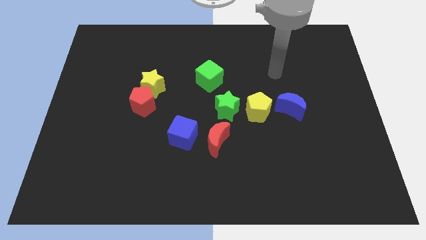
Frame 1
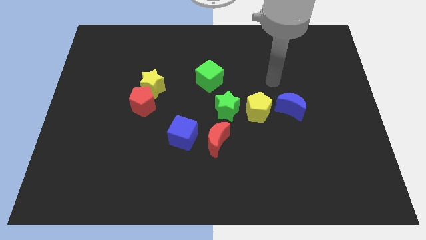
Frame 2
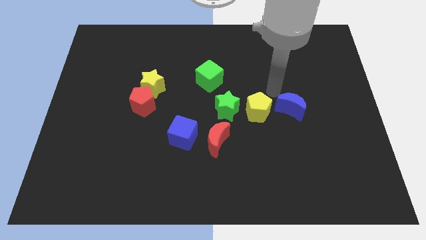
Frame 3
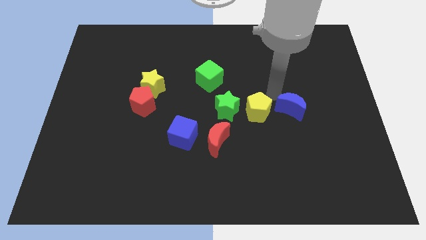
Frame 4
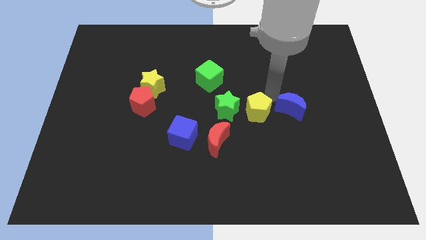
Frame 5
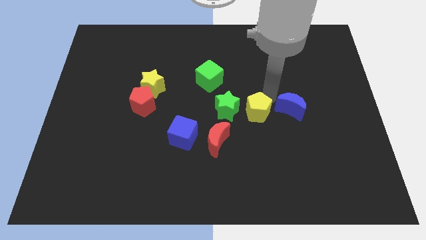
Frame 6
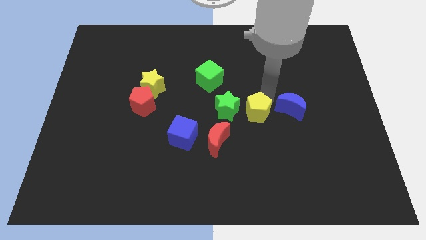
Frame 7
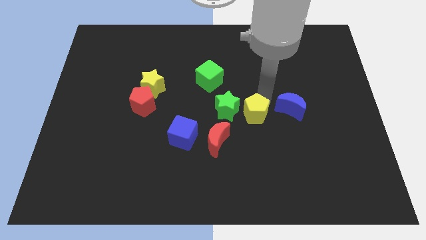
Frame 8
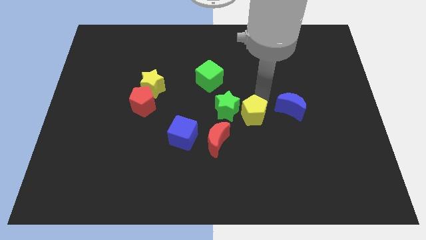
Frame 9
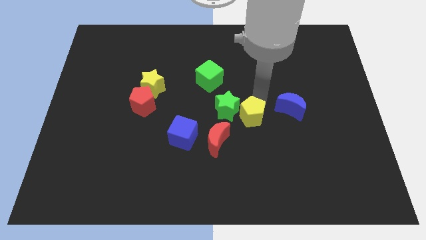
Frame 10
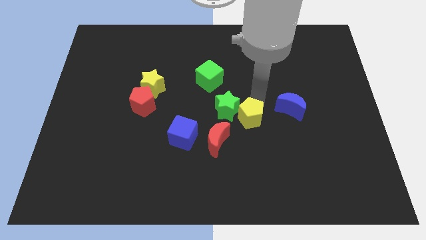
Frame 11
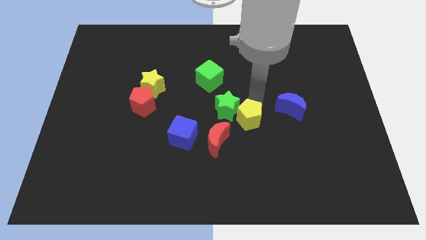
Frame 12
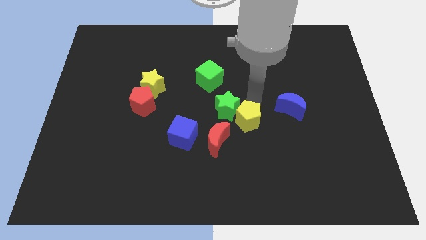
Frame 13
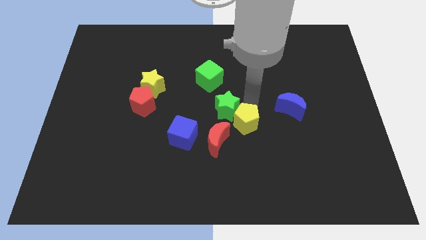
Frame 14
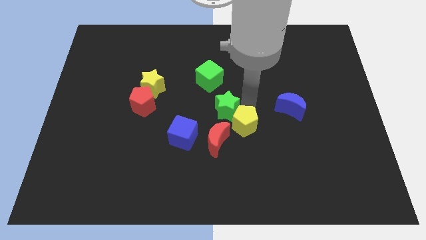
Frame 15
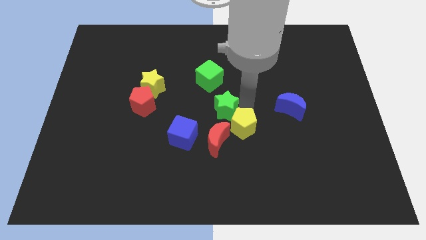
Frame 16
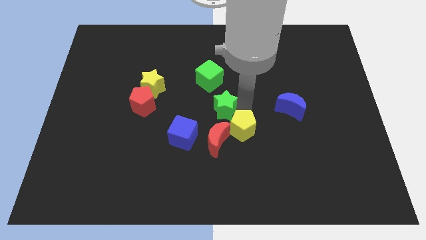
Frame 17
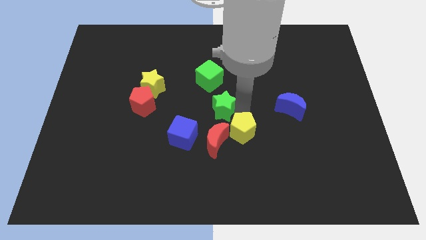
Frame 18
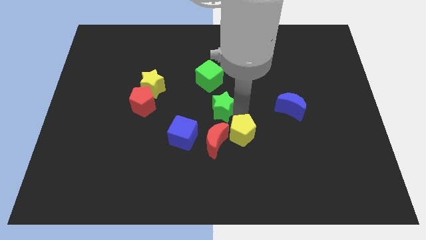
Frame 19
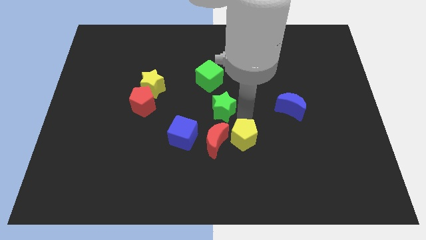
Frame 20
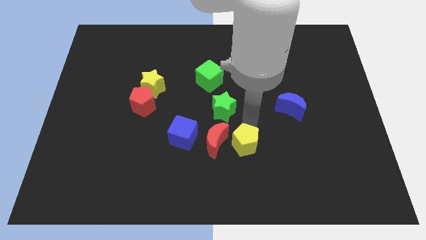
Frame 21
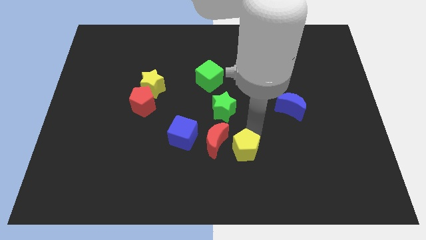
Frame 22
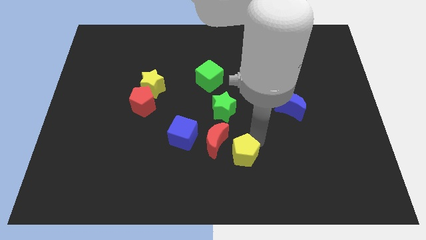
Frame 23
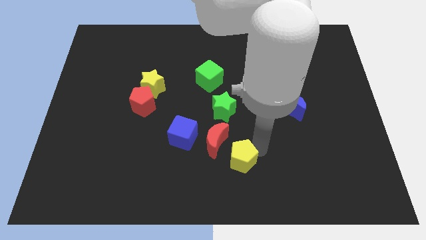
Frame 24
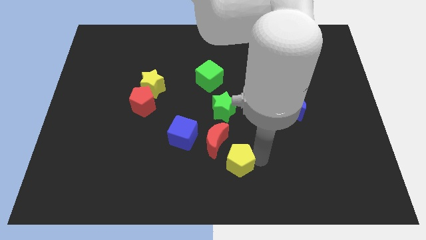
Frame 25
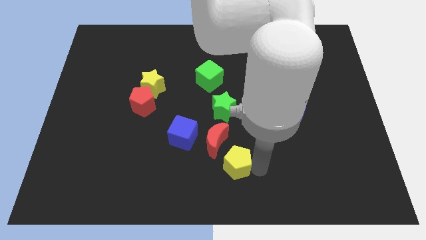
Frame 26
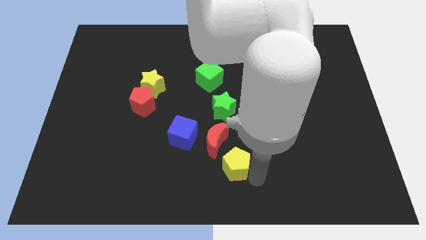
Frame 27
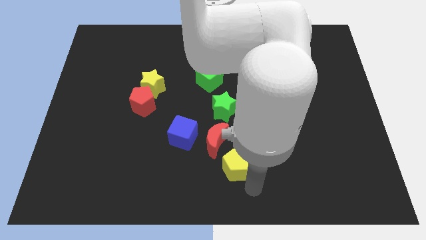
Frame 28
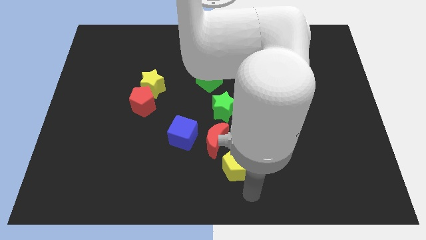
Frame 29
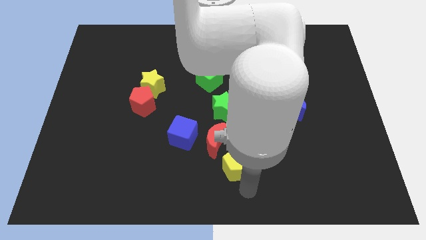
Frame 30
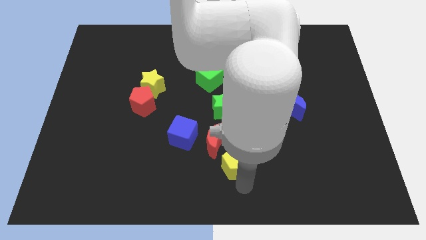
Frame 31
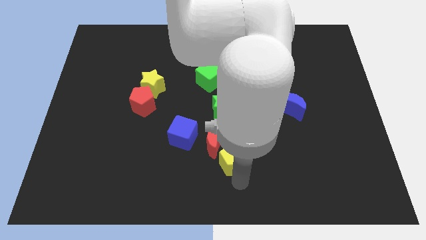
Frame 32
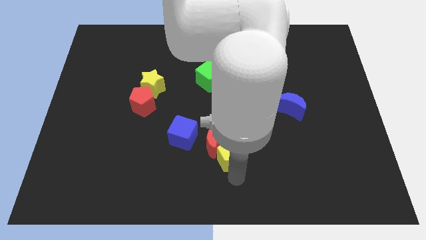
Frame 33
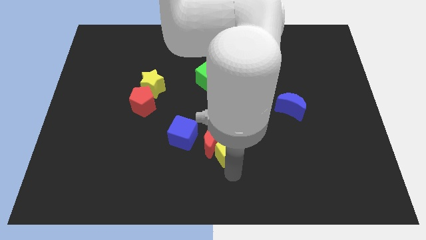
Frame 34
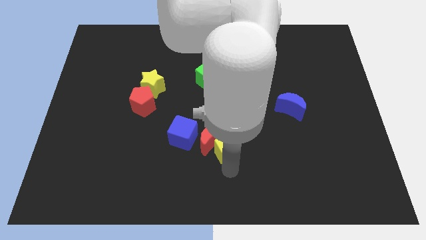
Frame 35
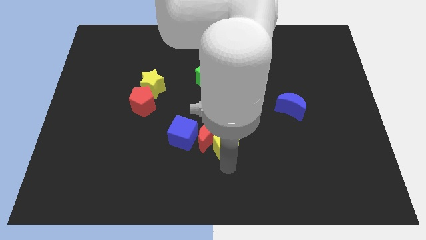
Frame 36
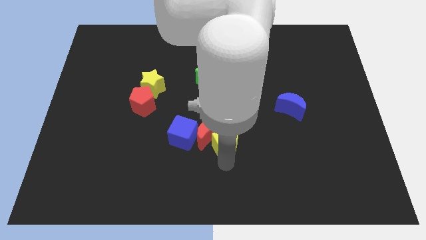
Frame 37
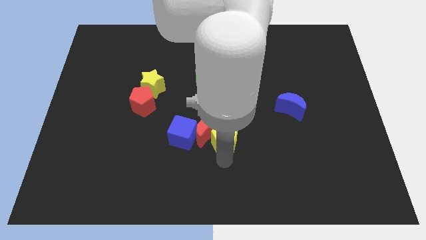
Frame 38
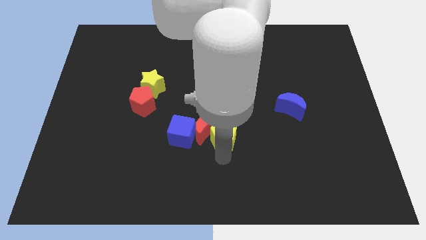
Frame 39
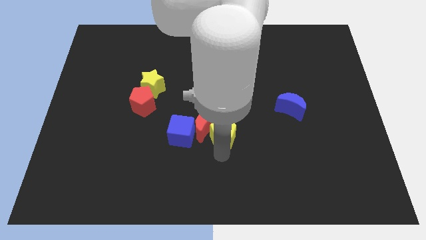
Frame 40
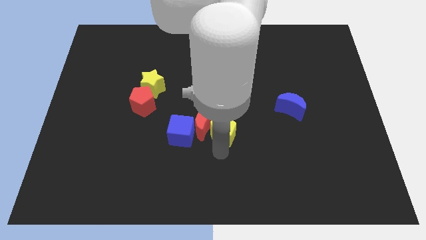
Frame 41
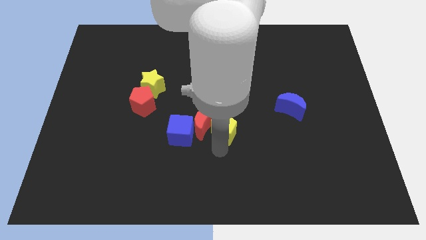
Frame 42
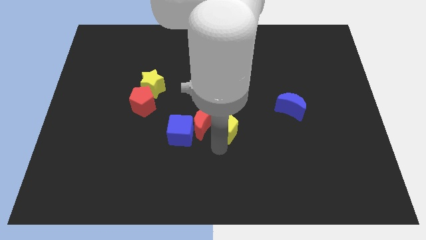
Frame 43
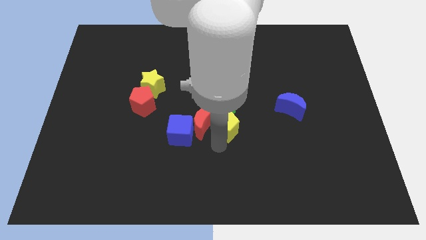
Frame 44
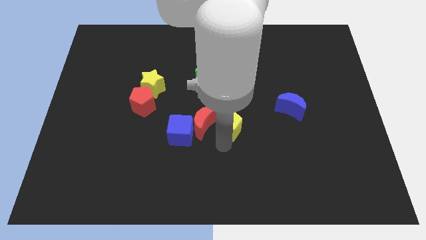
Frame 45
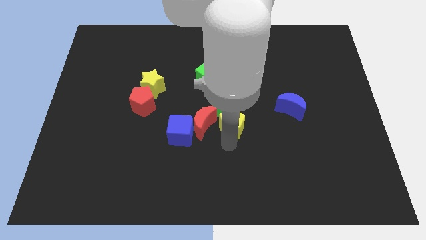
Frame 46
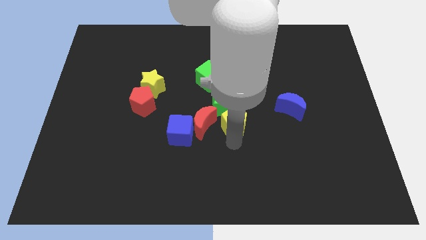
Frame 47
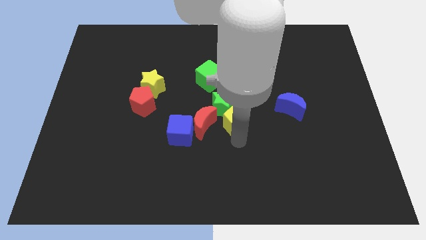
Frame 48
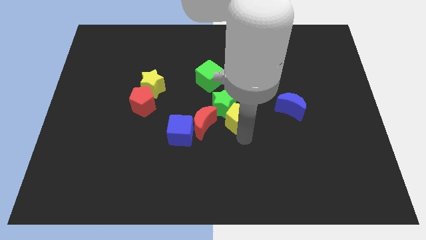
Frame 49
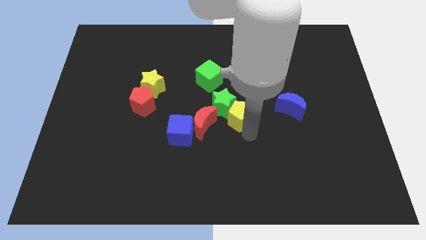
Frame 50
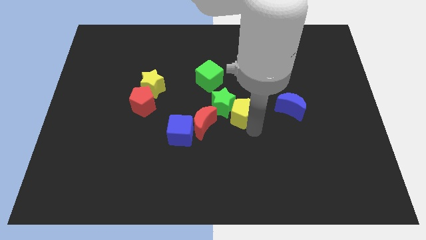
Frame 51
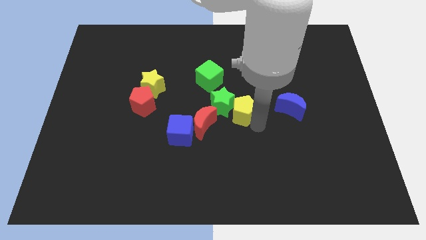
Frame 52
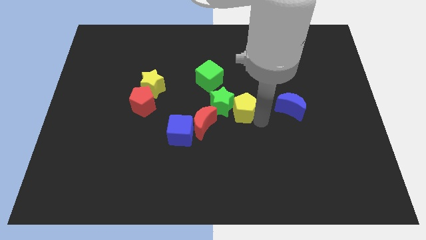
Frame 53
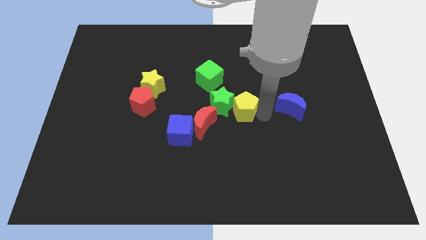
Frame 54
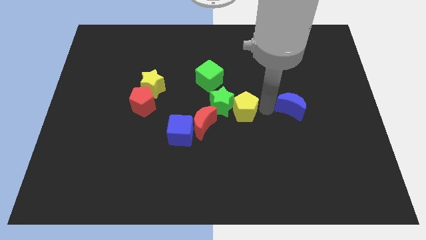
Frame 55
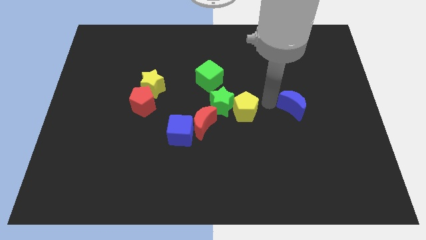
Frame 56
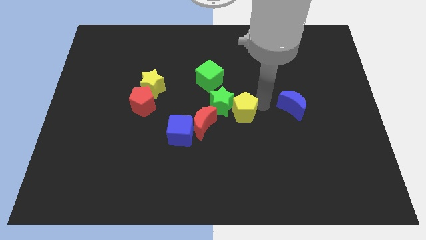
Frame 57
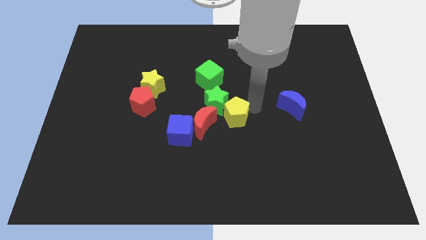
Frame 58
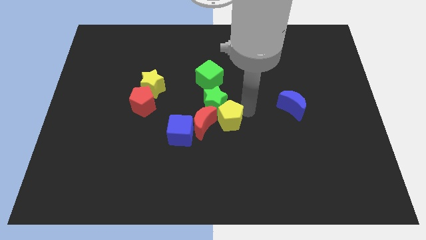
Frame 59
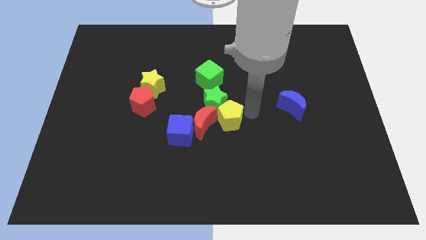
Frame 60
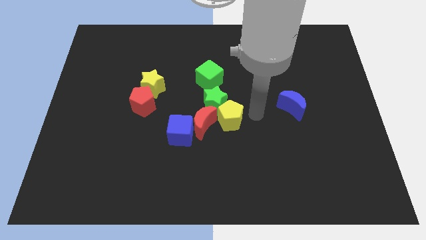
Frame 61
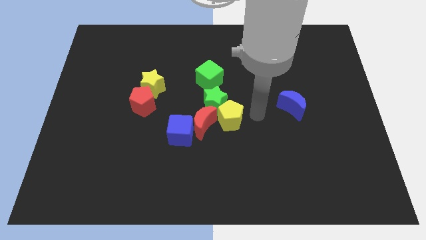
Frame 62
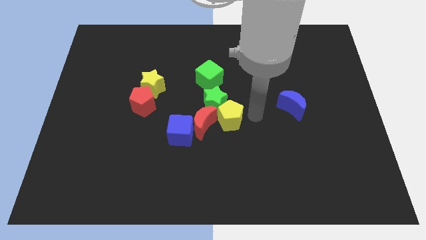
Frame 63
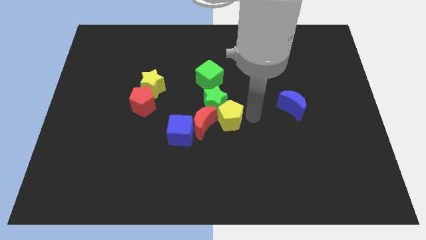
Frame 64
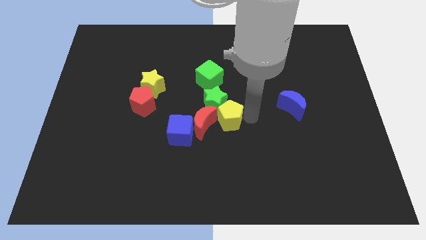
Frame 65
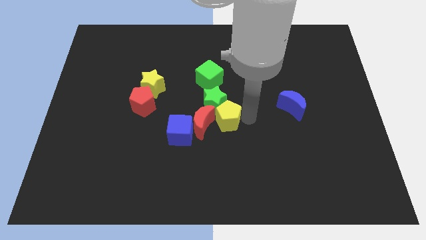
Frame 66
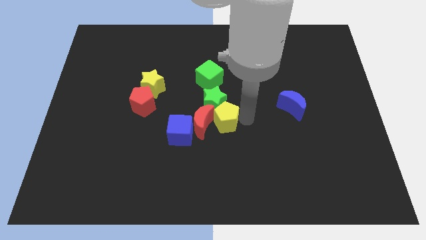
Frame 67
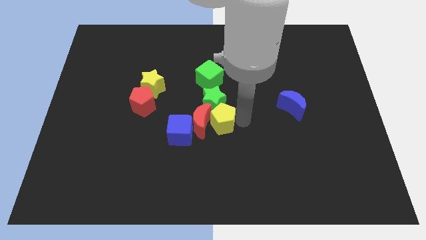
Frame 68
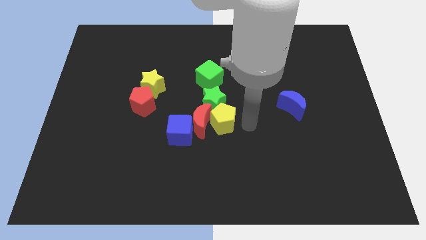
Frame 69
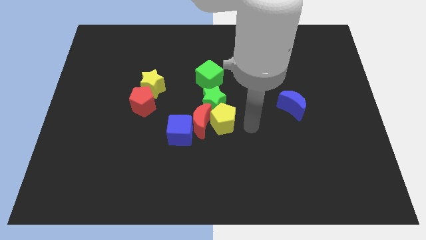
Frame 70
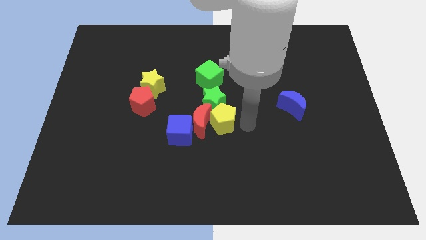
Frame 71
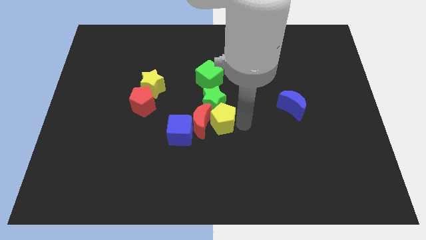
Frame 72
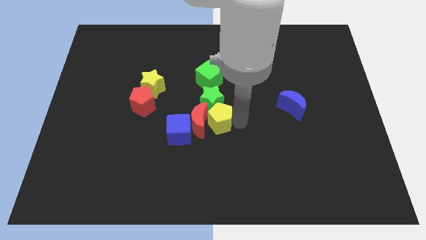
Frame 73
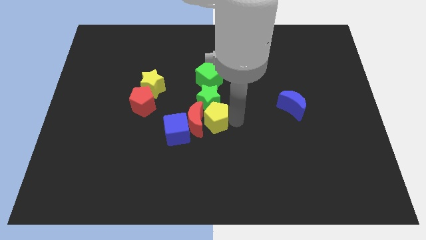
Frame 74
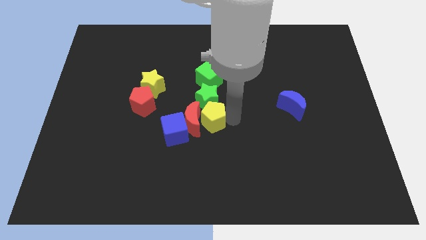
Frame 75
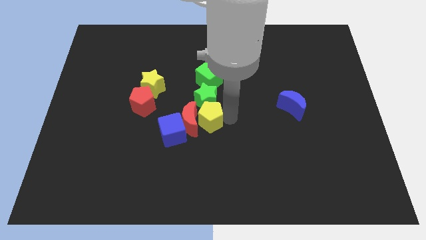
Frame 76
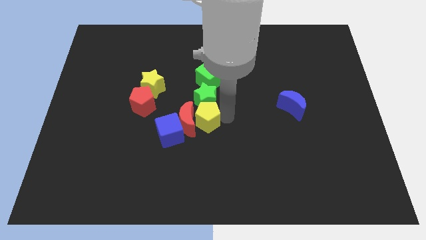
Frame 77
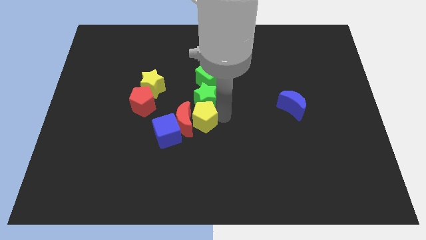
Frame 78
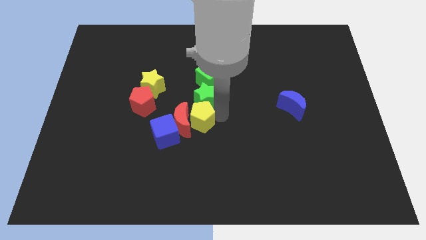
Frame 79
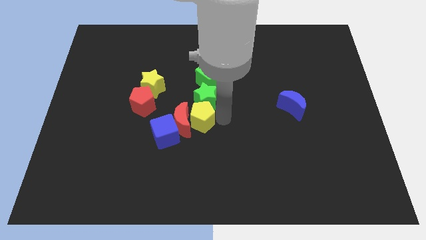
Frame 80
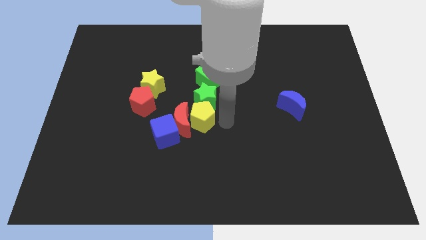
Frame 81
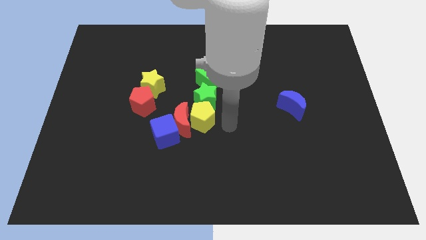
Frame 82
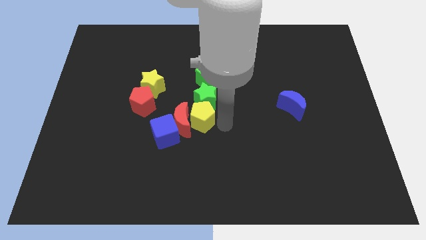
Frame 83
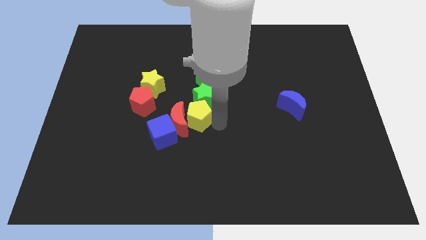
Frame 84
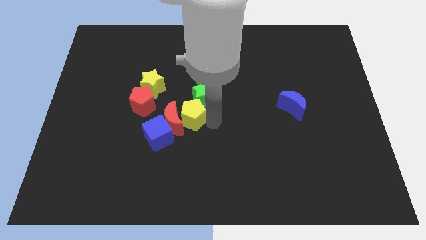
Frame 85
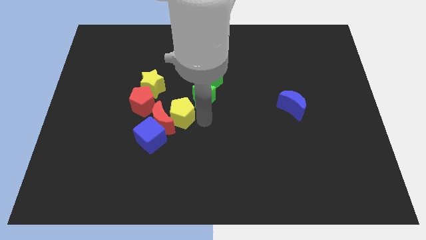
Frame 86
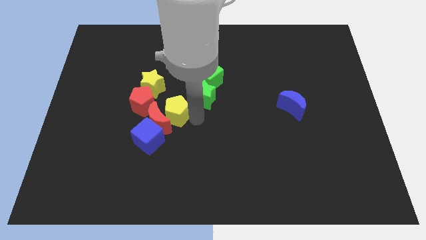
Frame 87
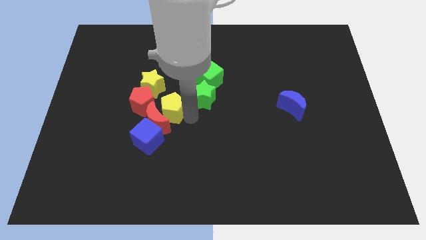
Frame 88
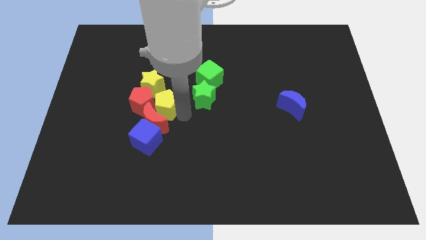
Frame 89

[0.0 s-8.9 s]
put the yellow pentagon to the red pentagon
